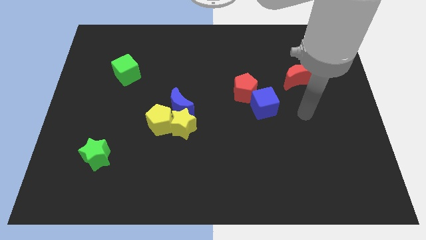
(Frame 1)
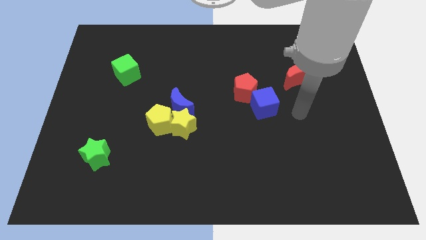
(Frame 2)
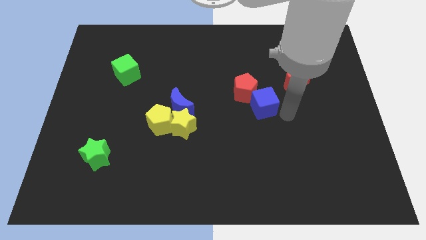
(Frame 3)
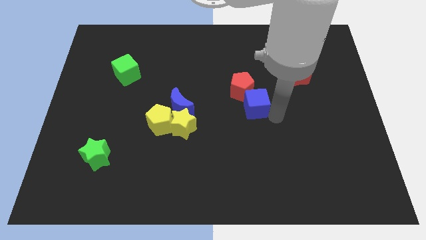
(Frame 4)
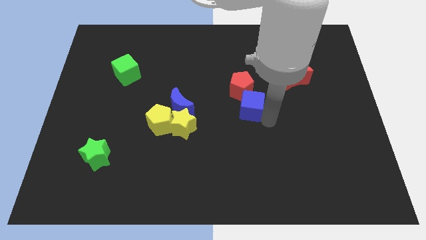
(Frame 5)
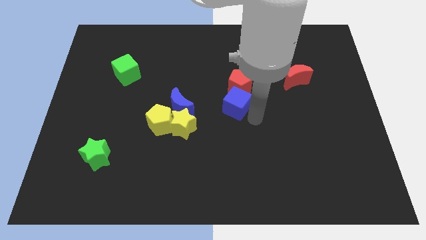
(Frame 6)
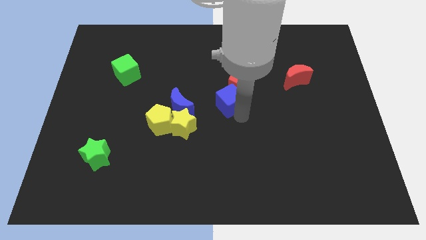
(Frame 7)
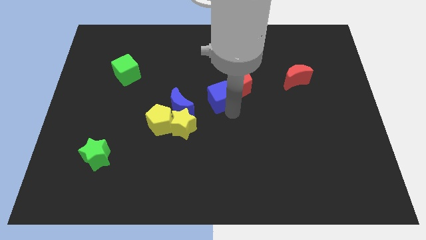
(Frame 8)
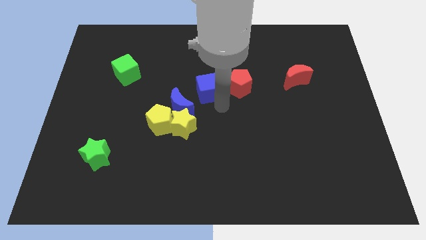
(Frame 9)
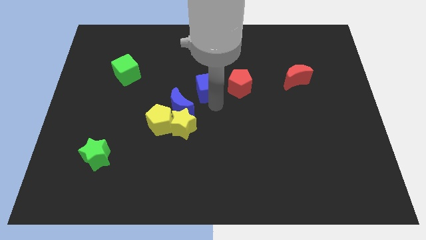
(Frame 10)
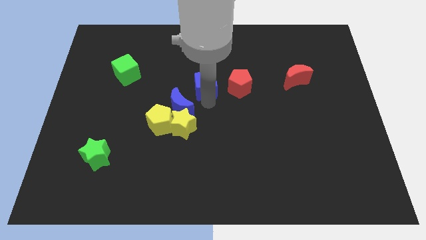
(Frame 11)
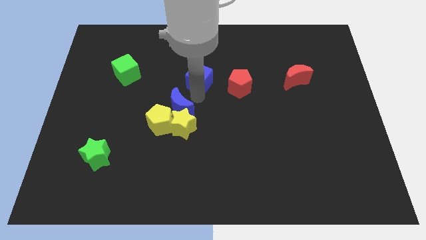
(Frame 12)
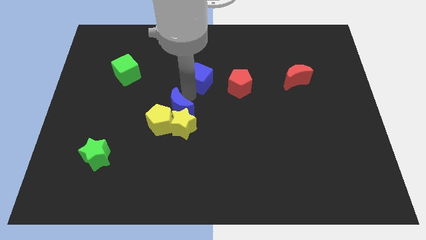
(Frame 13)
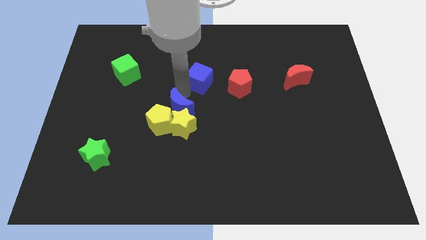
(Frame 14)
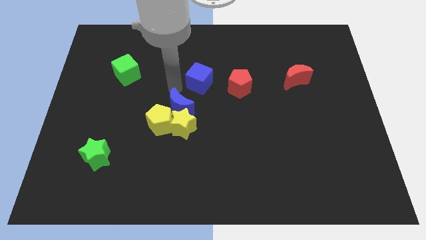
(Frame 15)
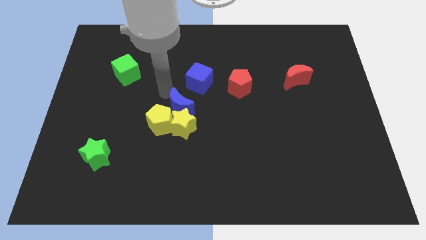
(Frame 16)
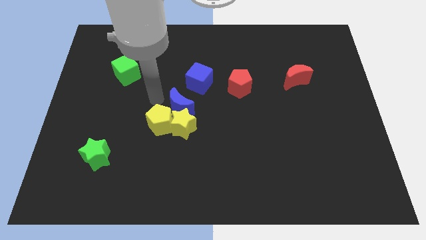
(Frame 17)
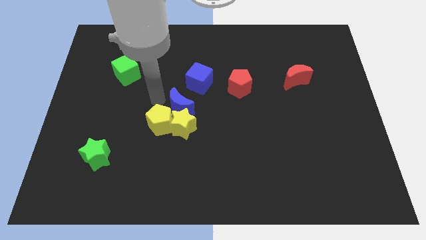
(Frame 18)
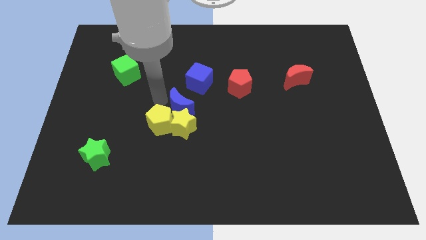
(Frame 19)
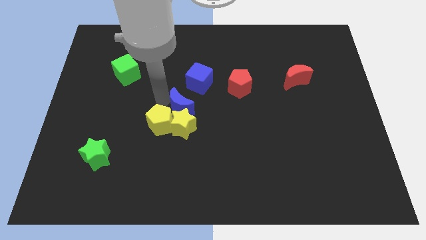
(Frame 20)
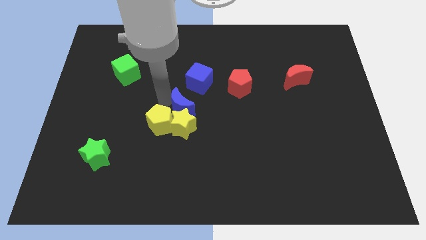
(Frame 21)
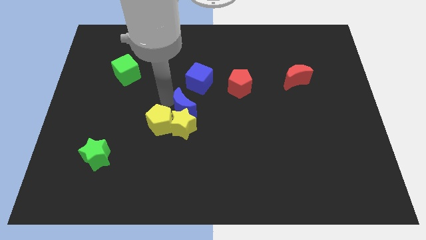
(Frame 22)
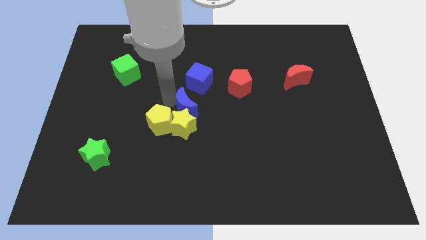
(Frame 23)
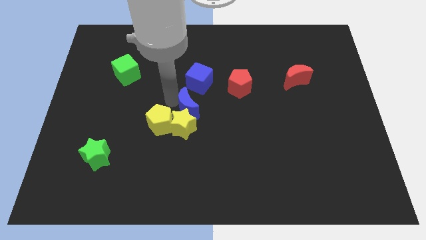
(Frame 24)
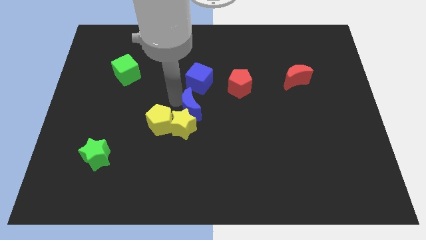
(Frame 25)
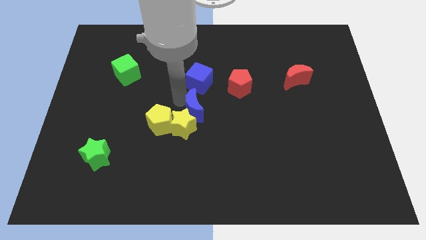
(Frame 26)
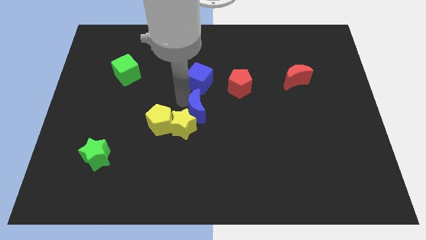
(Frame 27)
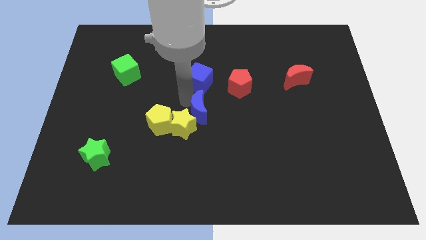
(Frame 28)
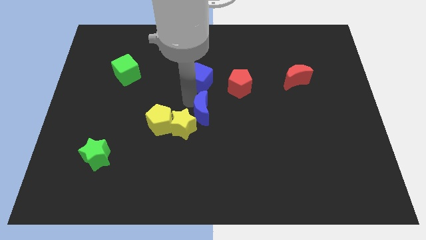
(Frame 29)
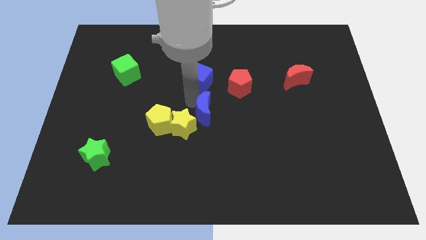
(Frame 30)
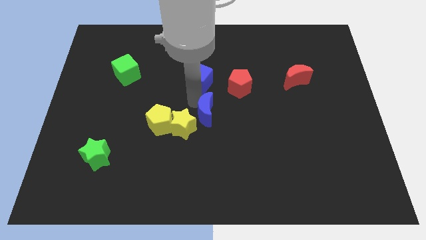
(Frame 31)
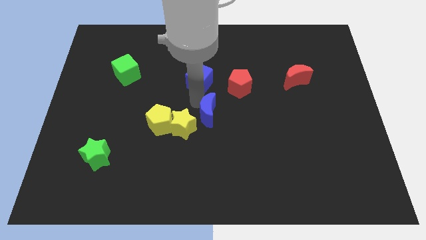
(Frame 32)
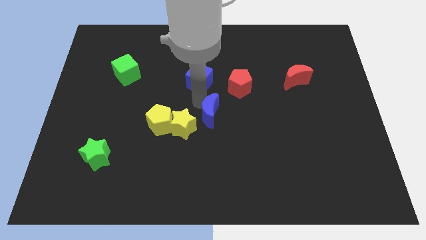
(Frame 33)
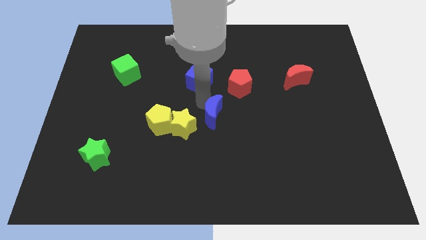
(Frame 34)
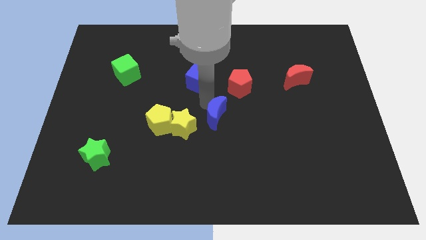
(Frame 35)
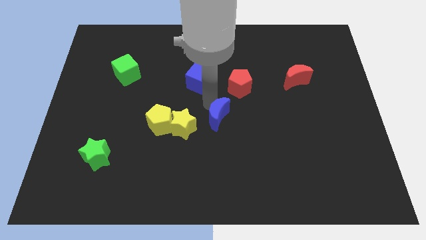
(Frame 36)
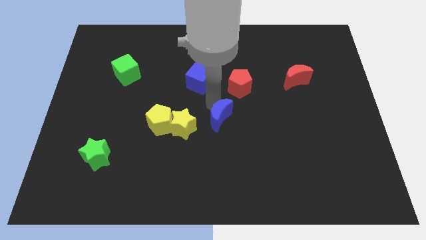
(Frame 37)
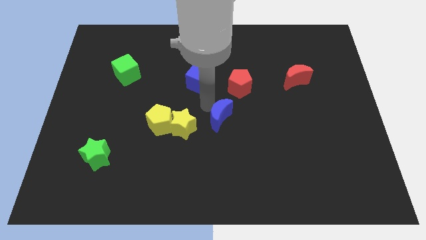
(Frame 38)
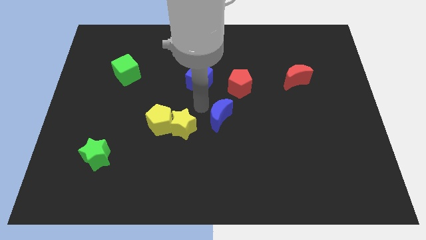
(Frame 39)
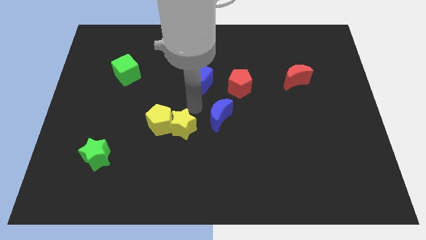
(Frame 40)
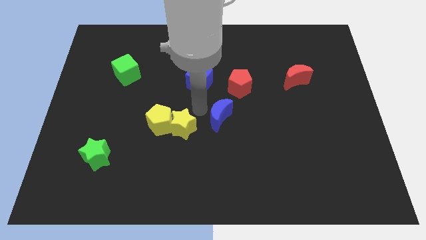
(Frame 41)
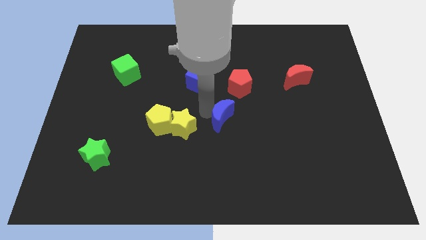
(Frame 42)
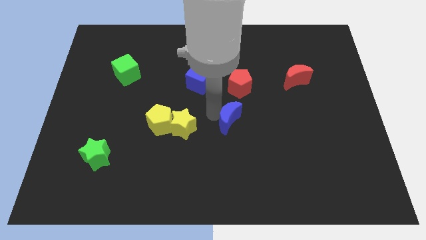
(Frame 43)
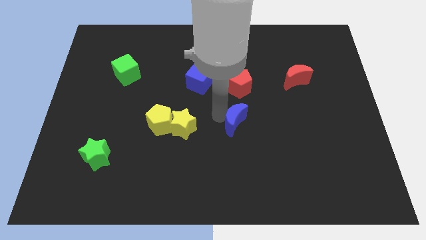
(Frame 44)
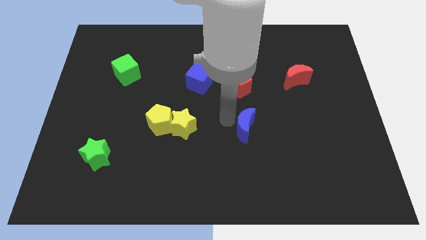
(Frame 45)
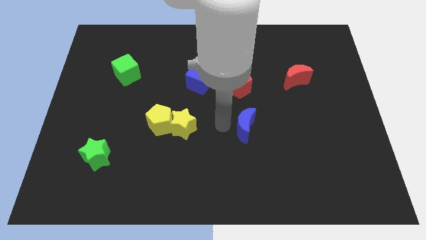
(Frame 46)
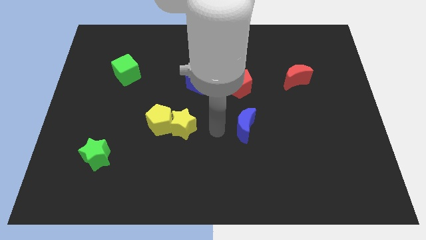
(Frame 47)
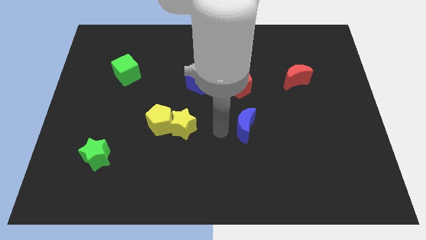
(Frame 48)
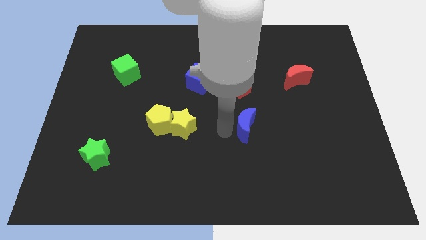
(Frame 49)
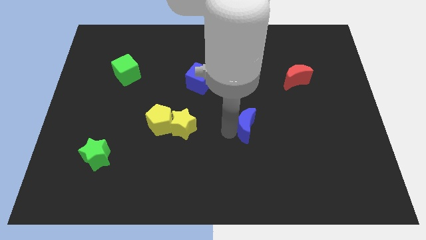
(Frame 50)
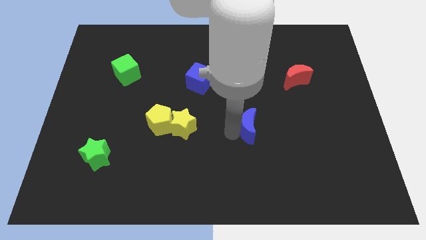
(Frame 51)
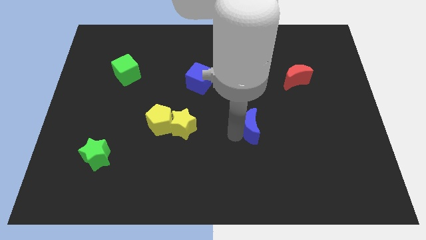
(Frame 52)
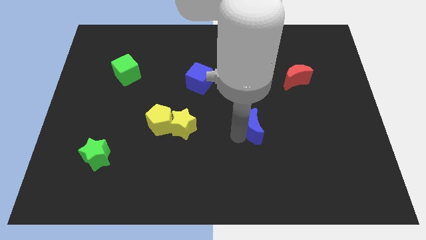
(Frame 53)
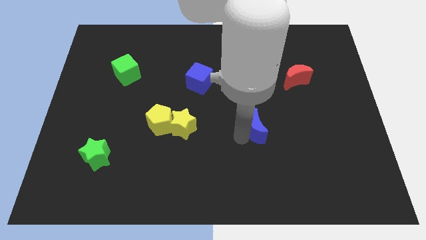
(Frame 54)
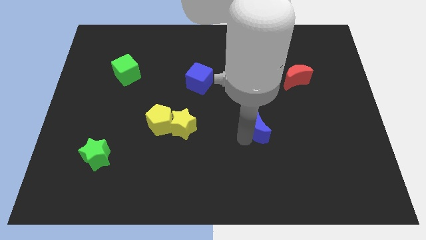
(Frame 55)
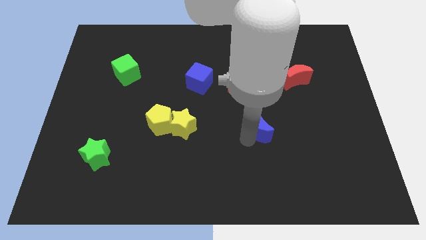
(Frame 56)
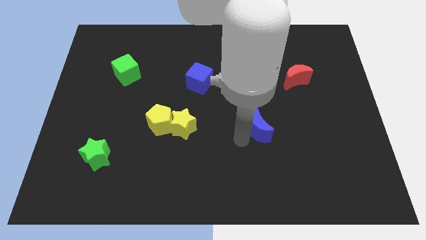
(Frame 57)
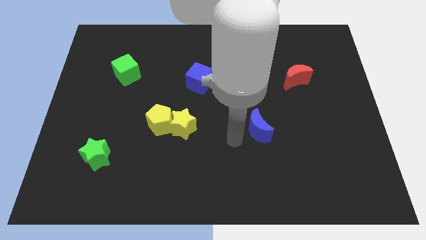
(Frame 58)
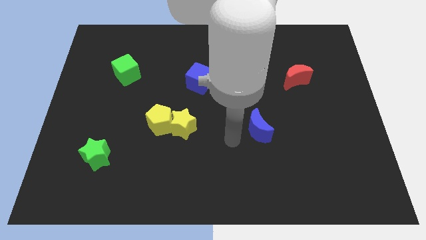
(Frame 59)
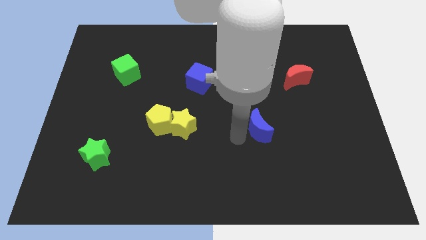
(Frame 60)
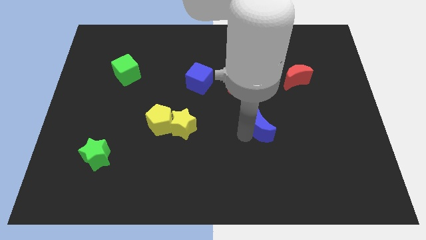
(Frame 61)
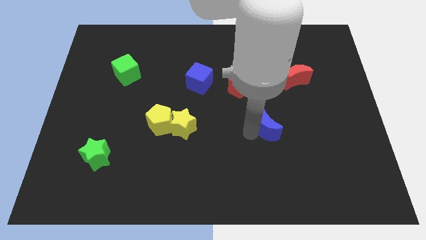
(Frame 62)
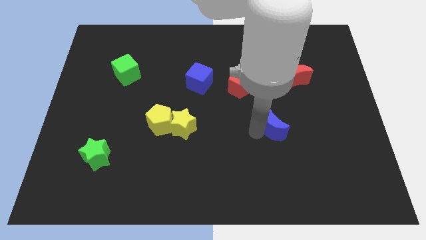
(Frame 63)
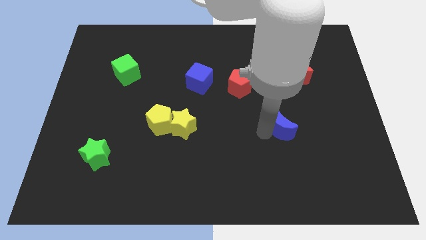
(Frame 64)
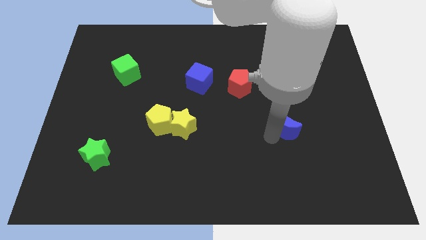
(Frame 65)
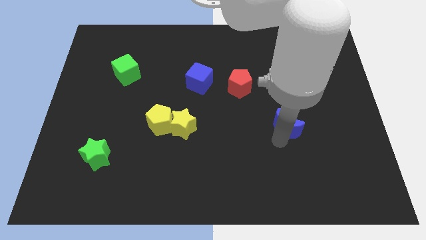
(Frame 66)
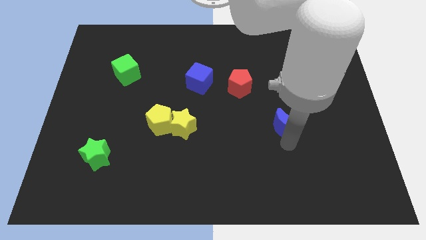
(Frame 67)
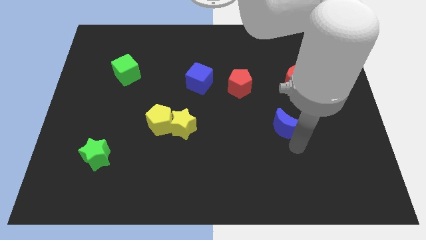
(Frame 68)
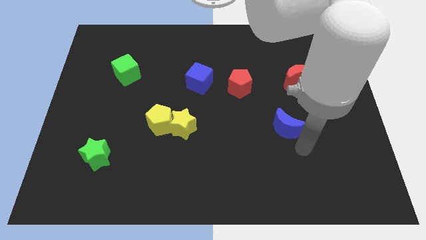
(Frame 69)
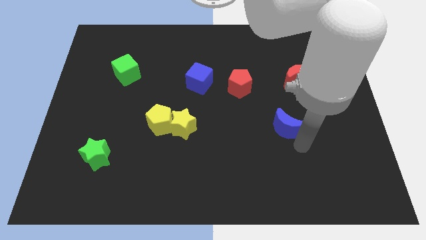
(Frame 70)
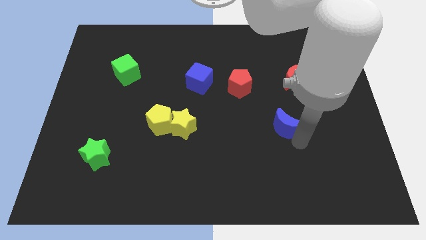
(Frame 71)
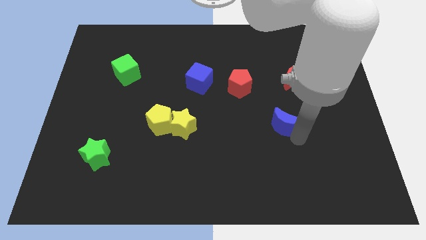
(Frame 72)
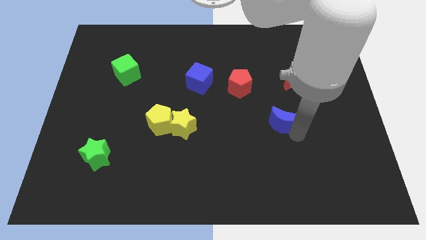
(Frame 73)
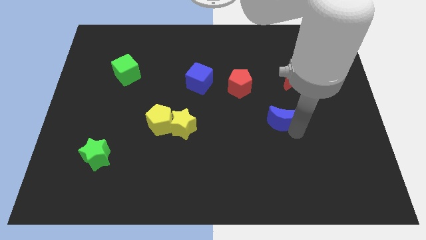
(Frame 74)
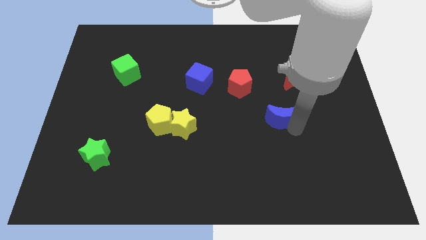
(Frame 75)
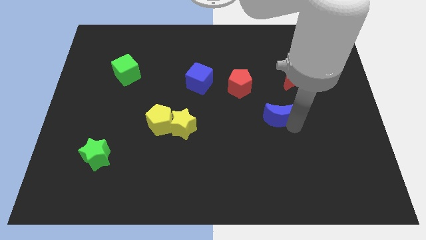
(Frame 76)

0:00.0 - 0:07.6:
move the blue moon to the bottom right side of the red pentagon
